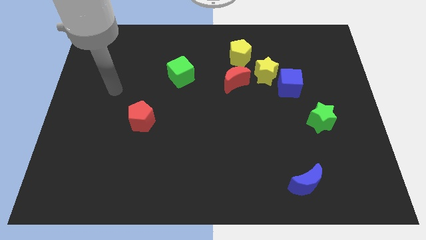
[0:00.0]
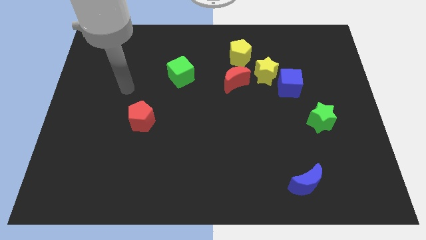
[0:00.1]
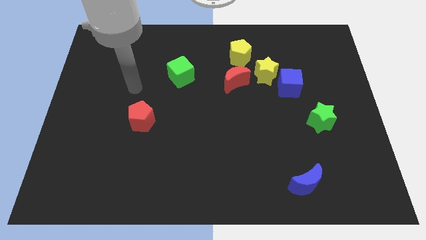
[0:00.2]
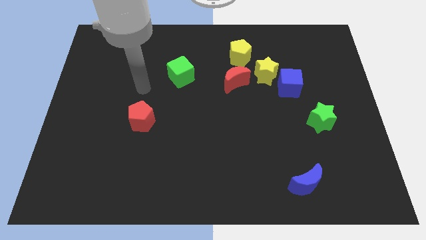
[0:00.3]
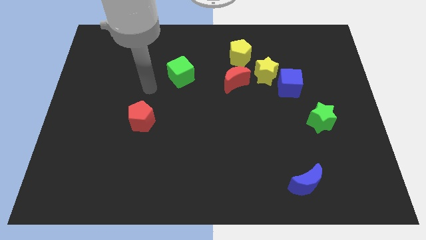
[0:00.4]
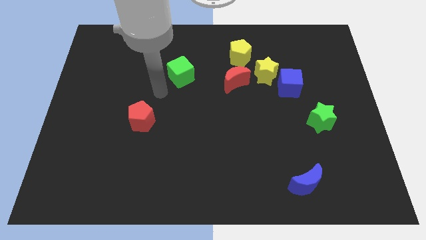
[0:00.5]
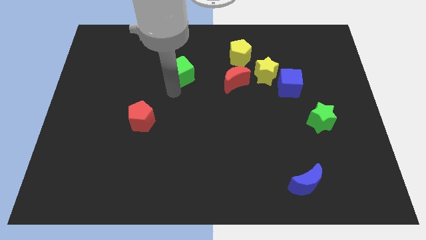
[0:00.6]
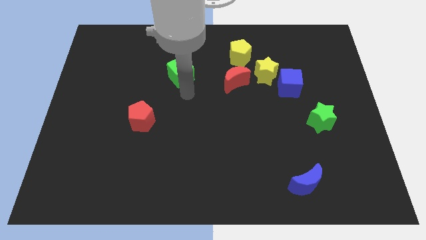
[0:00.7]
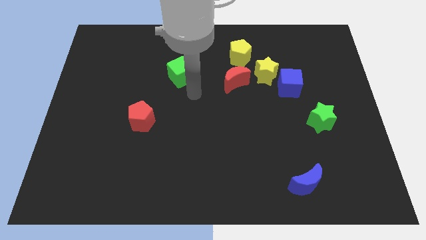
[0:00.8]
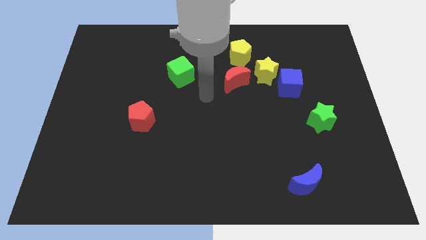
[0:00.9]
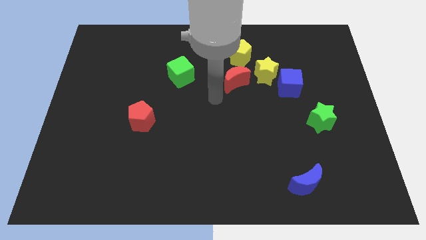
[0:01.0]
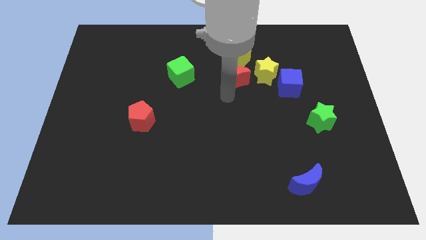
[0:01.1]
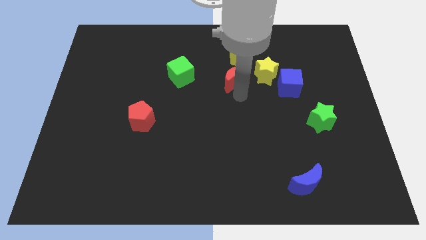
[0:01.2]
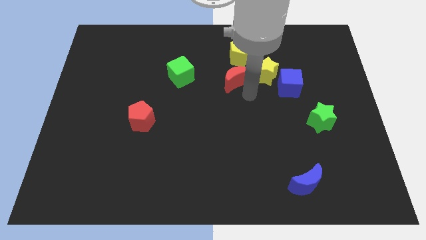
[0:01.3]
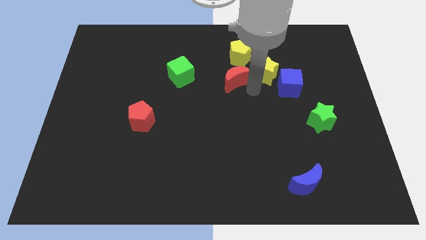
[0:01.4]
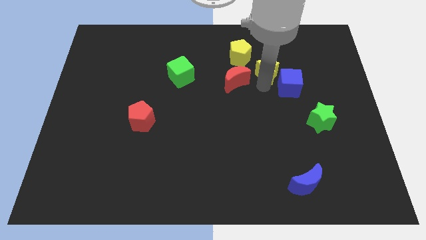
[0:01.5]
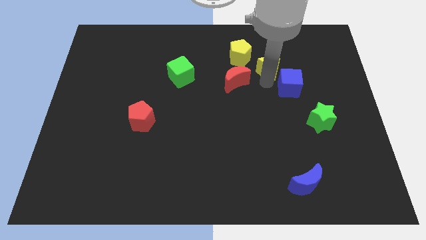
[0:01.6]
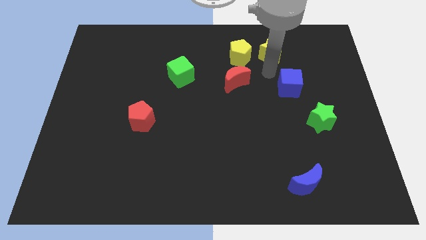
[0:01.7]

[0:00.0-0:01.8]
pull the blue cube apart from the yellow star

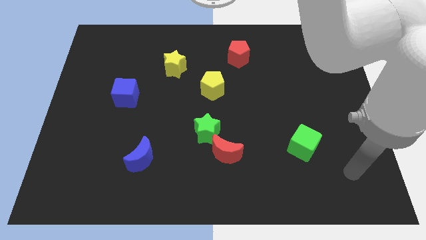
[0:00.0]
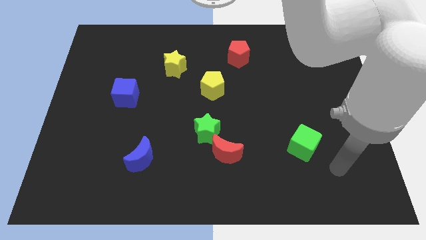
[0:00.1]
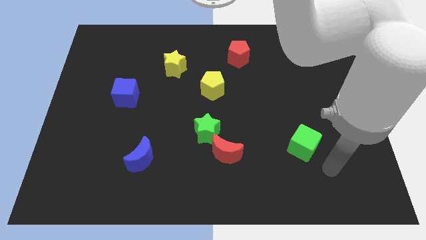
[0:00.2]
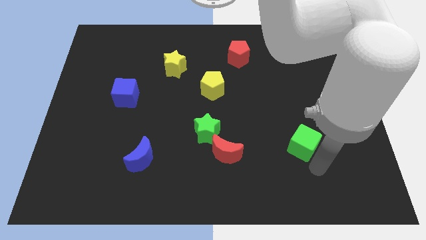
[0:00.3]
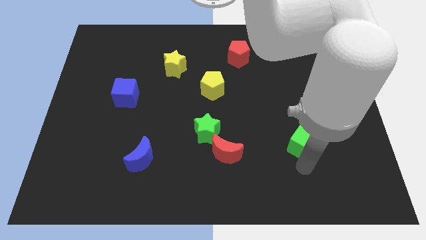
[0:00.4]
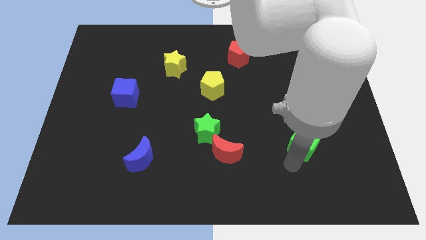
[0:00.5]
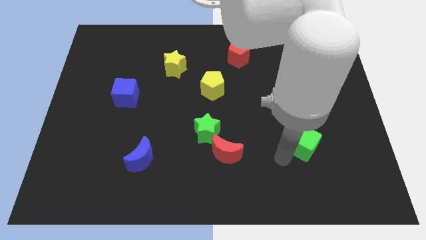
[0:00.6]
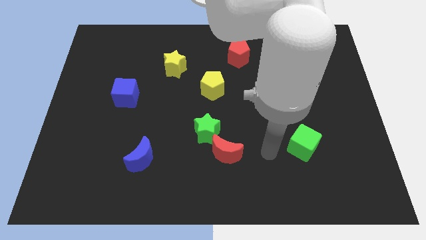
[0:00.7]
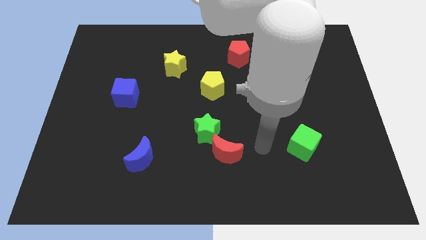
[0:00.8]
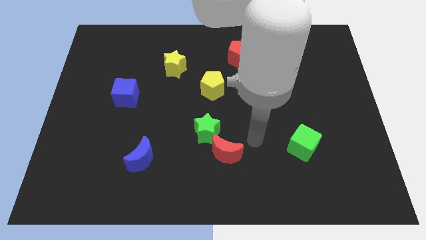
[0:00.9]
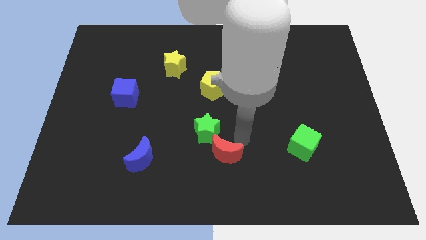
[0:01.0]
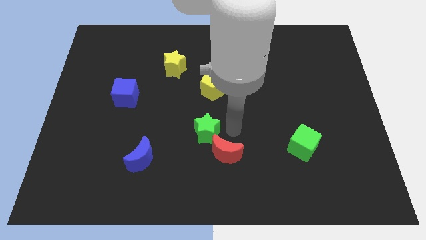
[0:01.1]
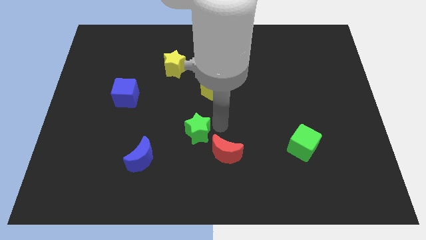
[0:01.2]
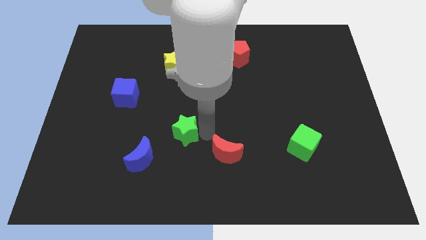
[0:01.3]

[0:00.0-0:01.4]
separate the red moon from the green star

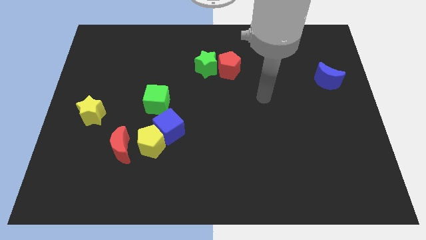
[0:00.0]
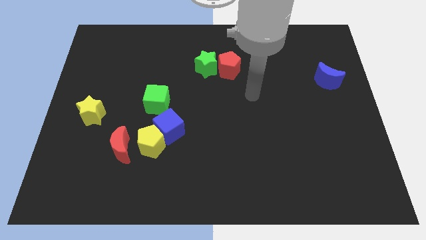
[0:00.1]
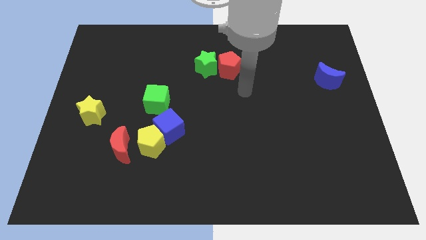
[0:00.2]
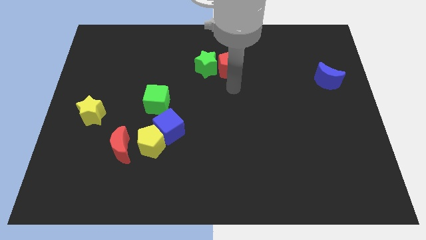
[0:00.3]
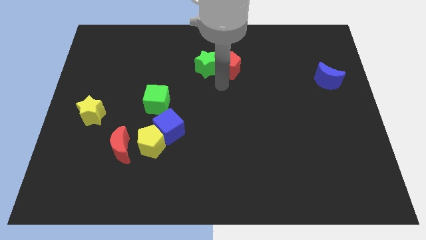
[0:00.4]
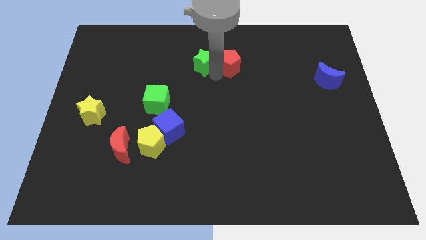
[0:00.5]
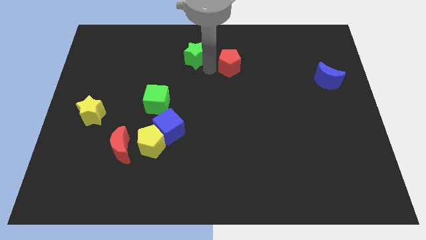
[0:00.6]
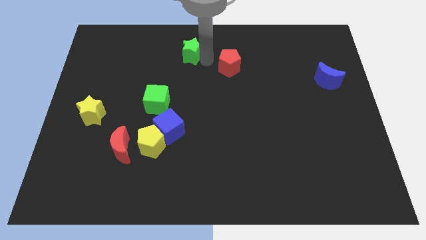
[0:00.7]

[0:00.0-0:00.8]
pull the red pentagon apart from the green star

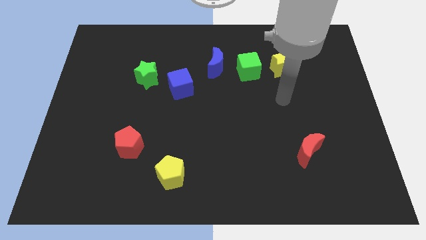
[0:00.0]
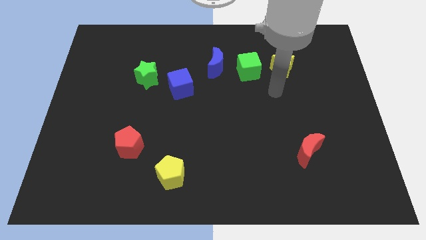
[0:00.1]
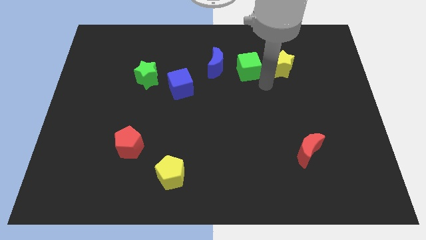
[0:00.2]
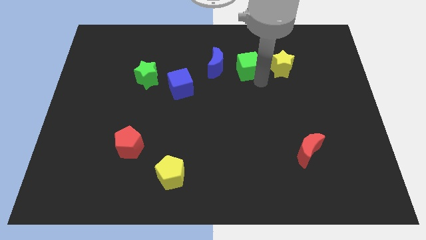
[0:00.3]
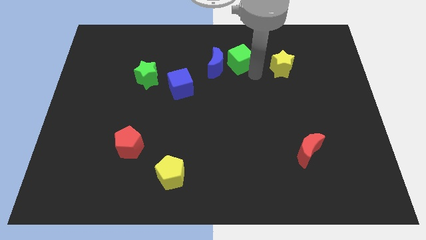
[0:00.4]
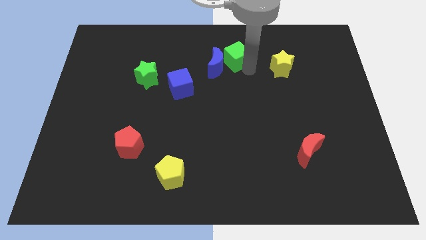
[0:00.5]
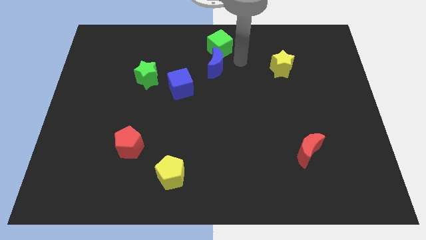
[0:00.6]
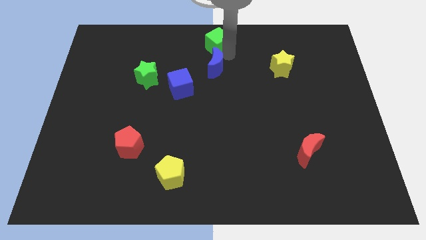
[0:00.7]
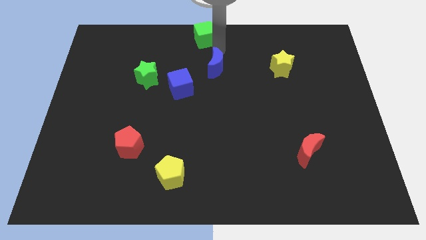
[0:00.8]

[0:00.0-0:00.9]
move the blue moon away from the green cube

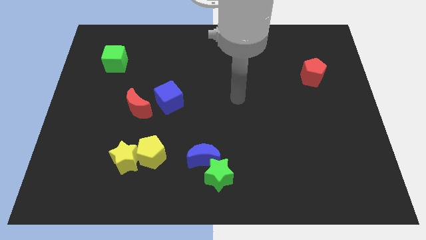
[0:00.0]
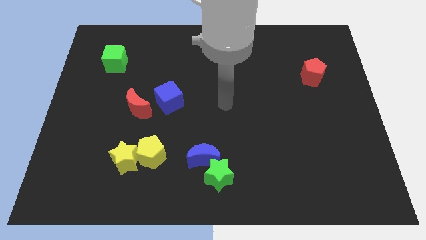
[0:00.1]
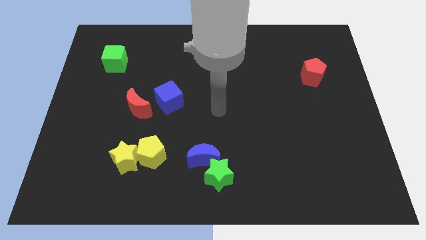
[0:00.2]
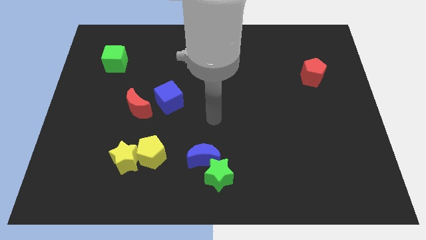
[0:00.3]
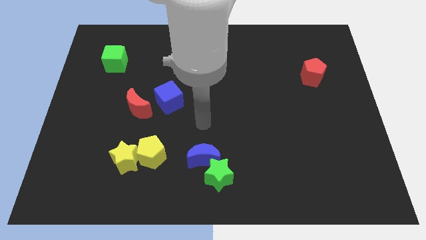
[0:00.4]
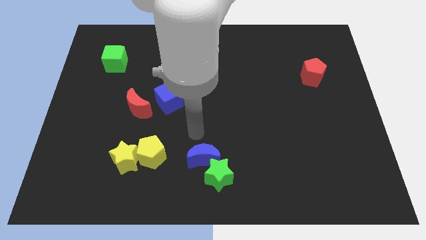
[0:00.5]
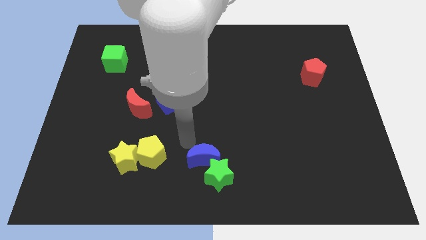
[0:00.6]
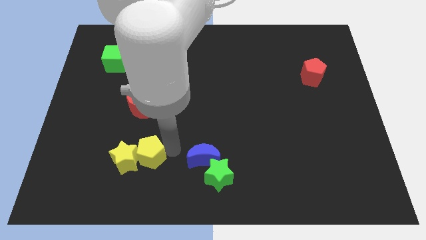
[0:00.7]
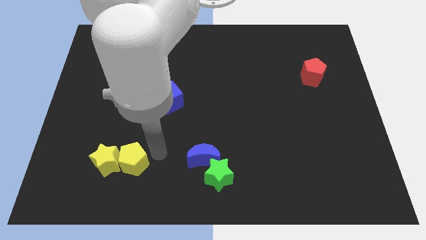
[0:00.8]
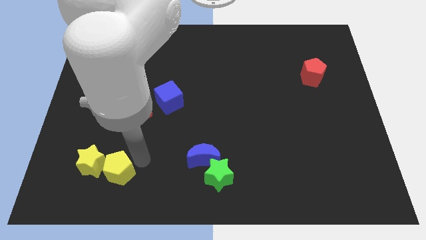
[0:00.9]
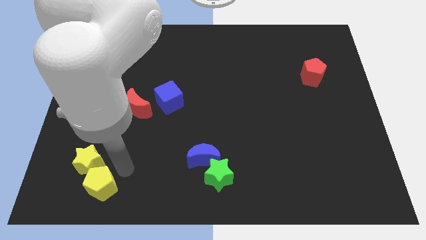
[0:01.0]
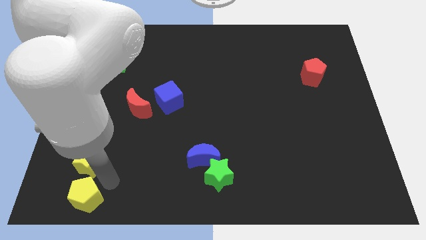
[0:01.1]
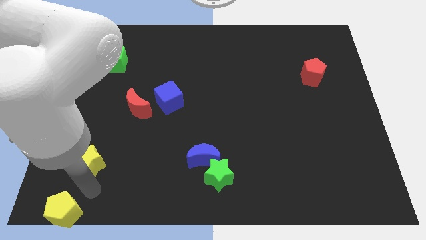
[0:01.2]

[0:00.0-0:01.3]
separate the yellow star from the yellow pentagon

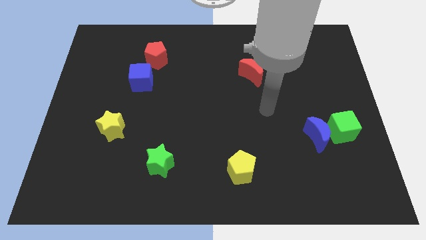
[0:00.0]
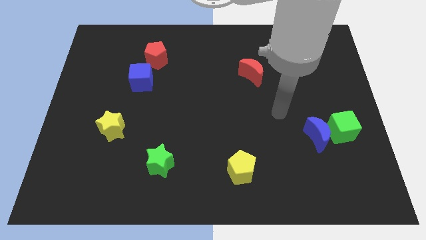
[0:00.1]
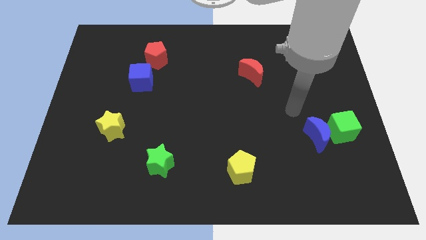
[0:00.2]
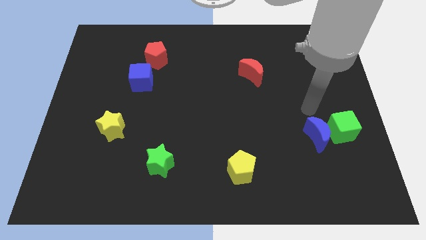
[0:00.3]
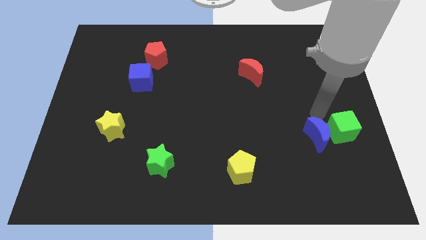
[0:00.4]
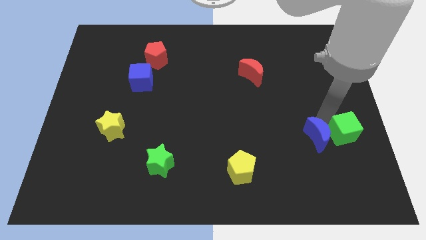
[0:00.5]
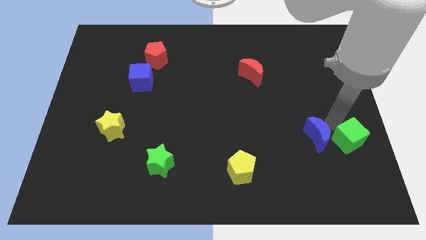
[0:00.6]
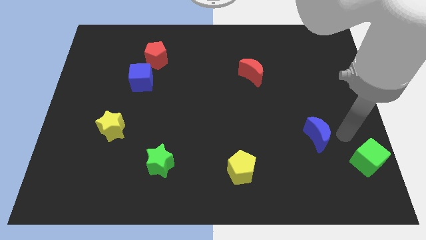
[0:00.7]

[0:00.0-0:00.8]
separate the blue moon from the green cube

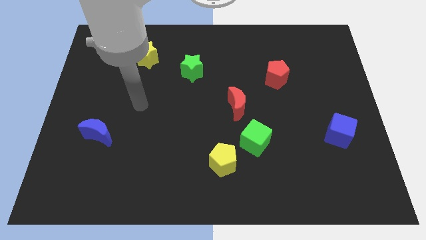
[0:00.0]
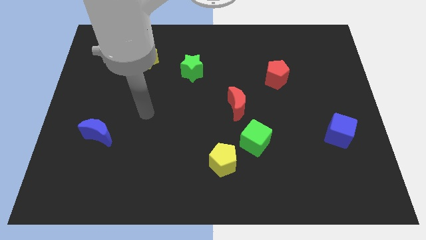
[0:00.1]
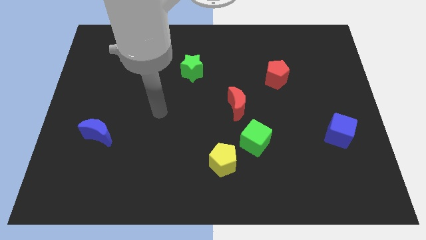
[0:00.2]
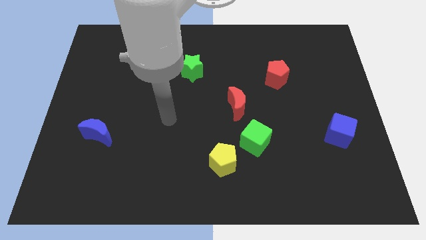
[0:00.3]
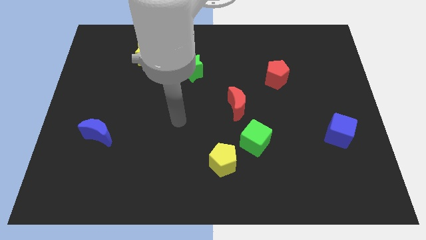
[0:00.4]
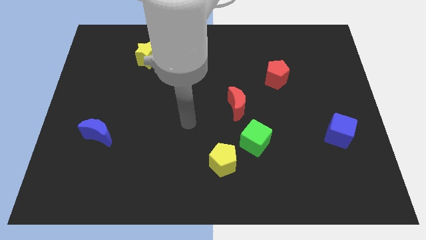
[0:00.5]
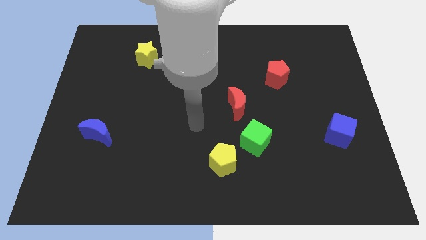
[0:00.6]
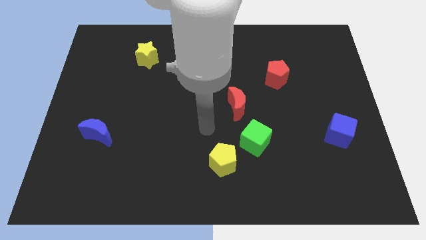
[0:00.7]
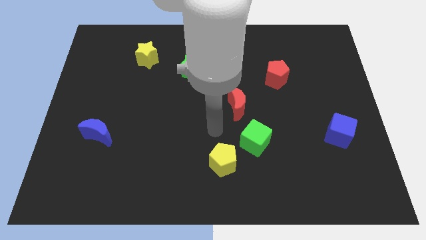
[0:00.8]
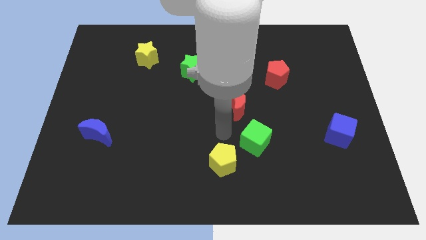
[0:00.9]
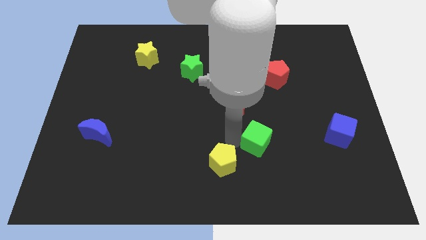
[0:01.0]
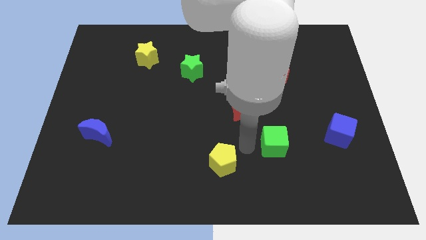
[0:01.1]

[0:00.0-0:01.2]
pull the yellow pentagon apart from the green cube

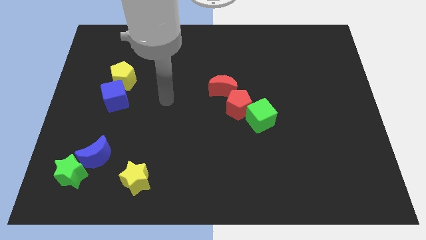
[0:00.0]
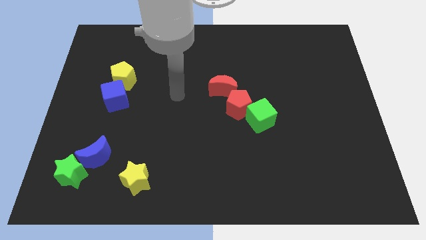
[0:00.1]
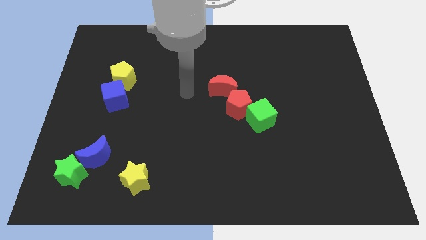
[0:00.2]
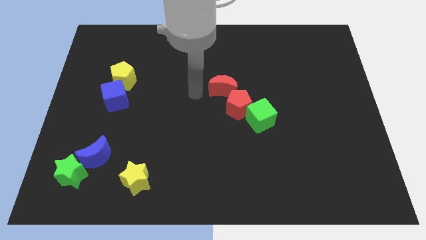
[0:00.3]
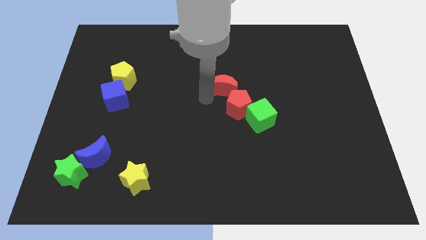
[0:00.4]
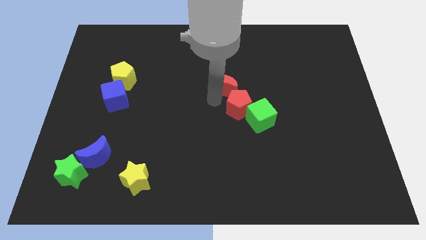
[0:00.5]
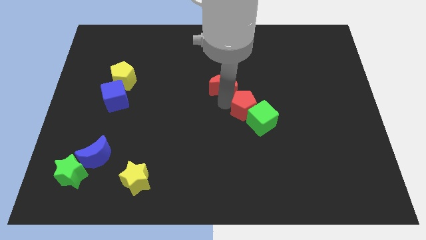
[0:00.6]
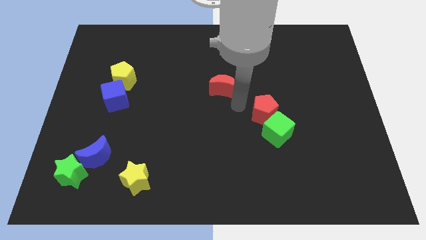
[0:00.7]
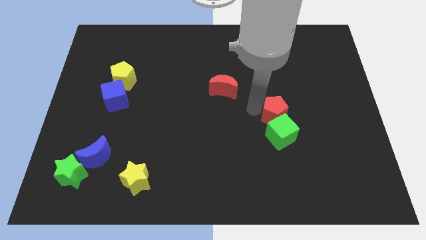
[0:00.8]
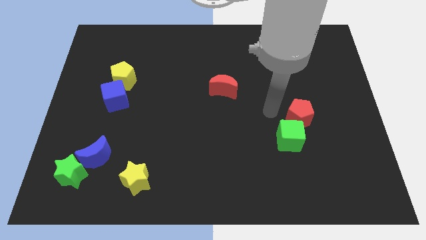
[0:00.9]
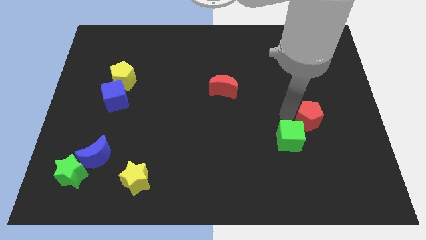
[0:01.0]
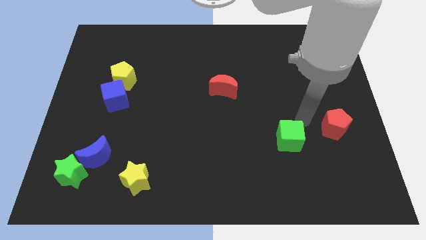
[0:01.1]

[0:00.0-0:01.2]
move the green cube away from the red pentagon

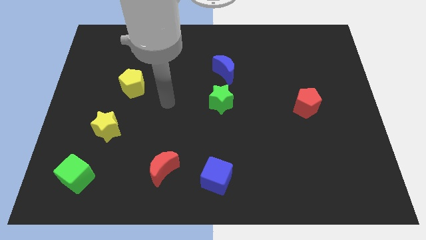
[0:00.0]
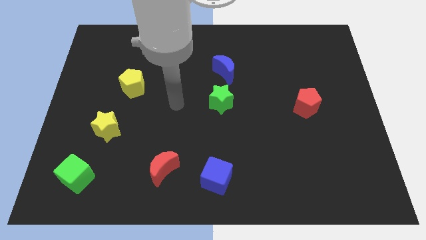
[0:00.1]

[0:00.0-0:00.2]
pull the blue moon apart from the green star
